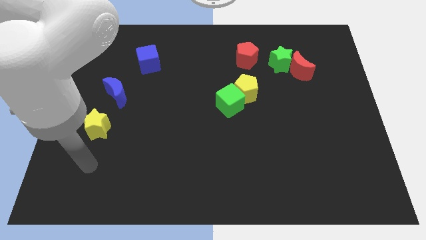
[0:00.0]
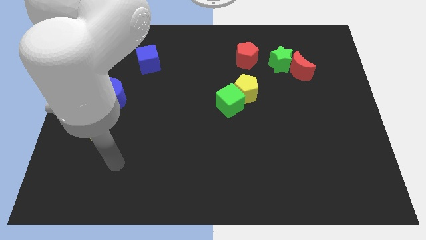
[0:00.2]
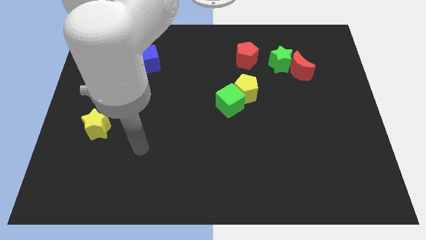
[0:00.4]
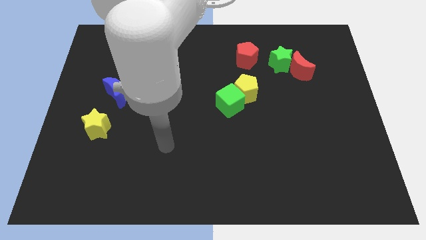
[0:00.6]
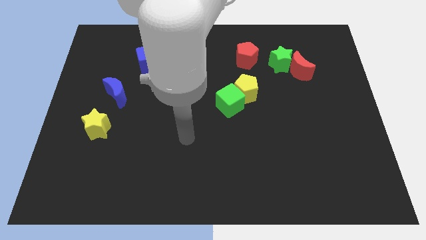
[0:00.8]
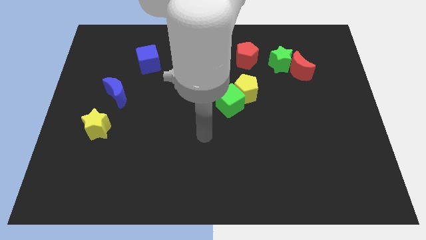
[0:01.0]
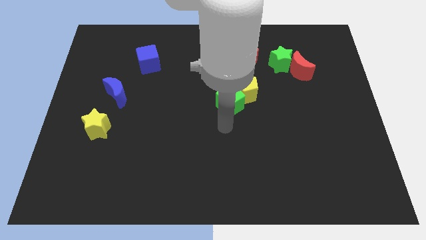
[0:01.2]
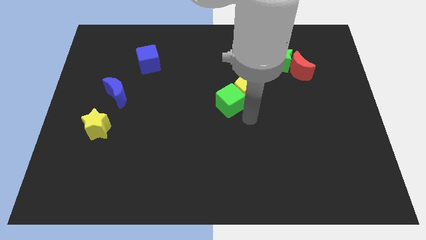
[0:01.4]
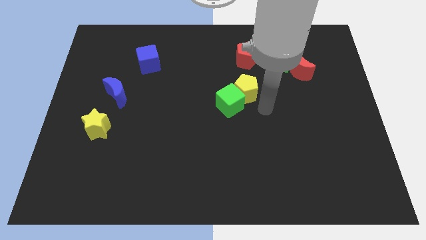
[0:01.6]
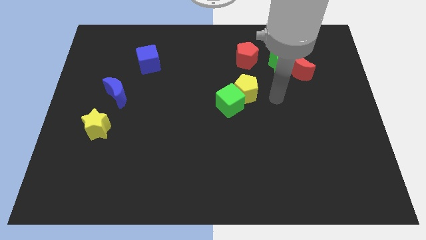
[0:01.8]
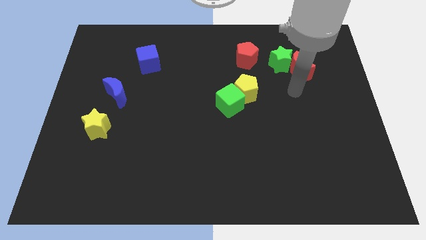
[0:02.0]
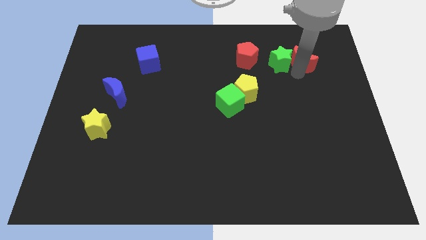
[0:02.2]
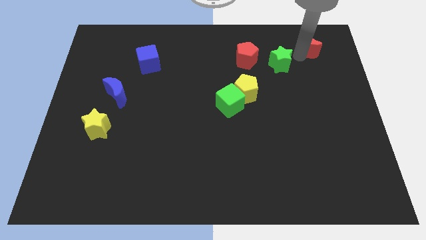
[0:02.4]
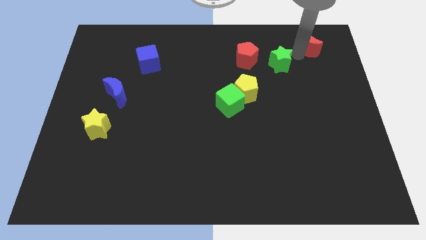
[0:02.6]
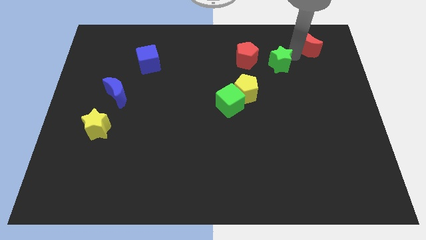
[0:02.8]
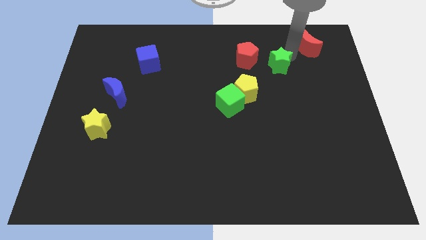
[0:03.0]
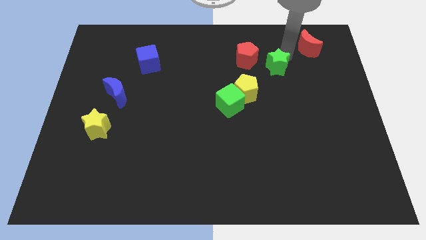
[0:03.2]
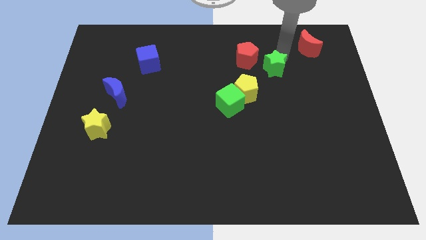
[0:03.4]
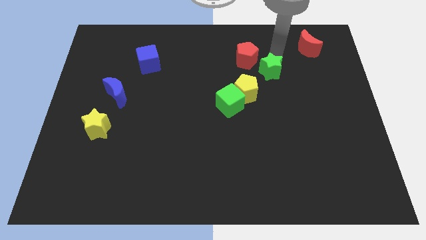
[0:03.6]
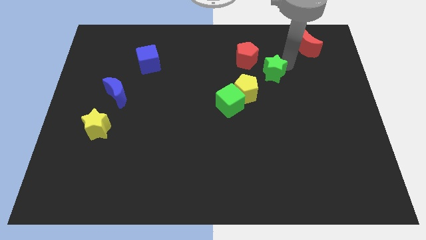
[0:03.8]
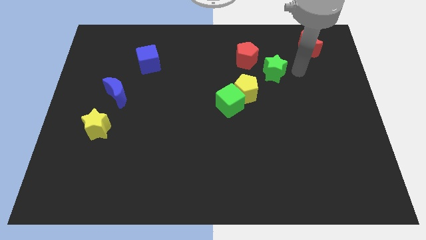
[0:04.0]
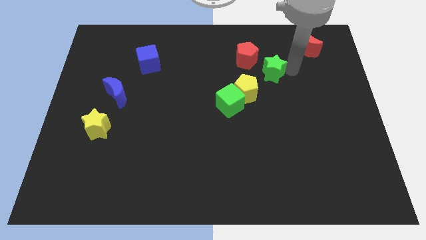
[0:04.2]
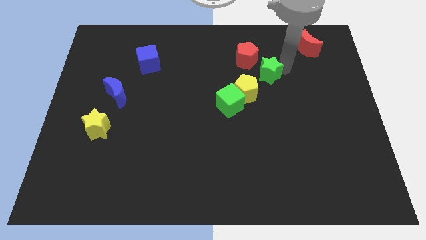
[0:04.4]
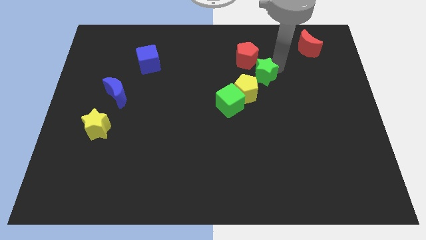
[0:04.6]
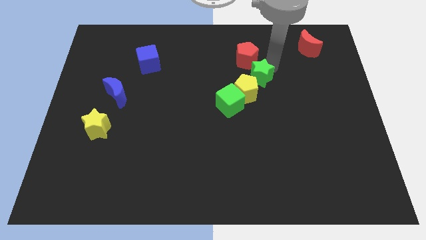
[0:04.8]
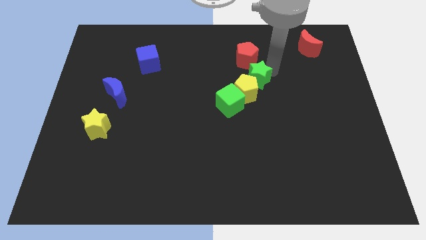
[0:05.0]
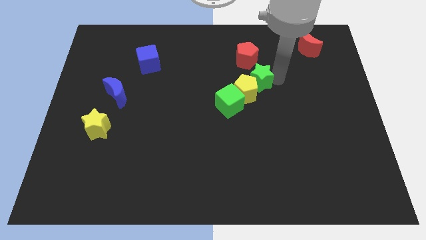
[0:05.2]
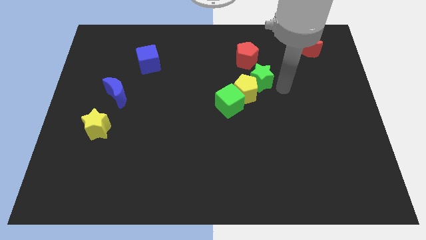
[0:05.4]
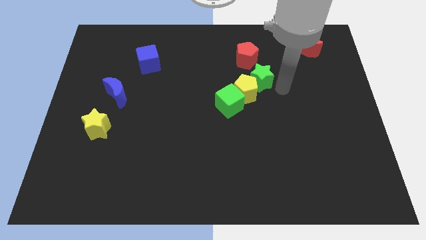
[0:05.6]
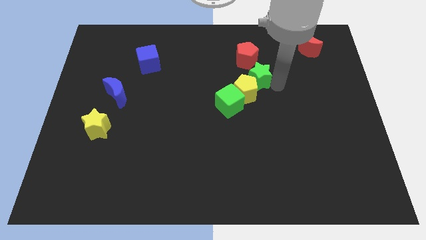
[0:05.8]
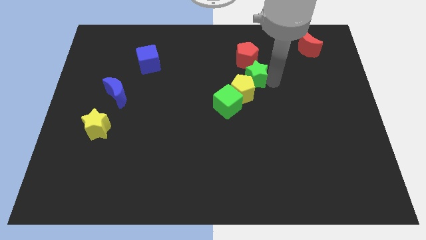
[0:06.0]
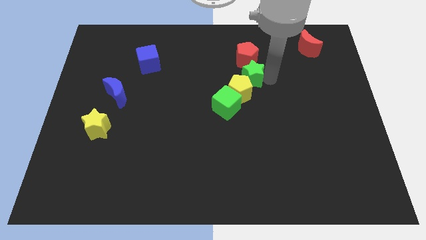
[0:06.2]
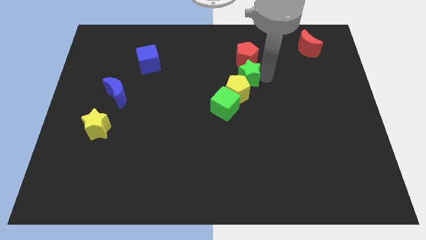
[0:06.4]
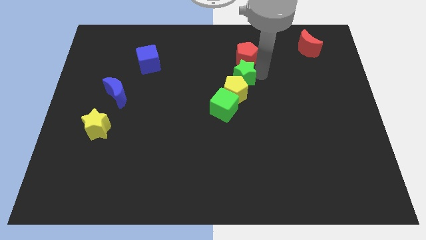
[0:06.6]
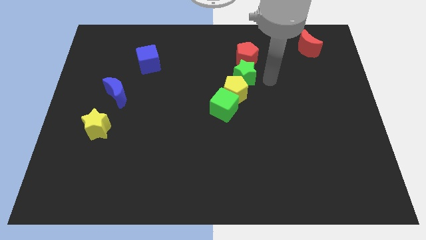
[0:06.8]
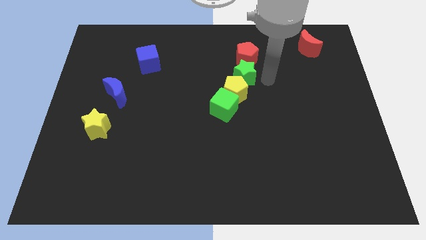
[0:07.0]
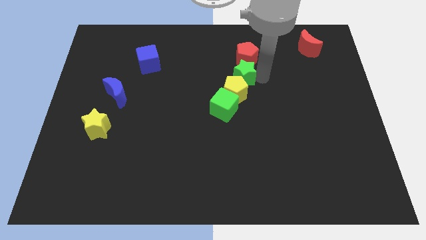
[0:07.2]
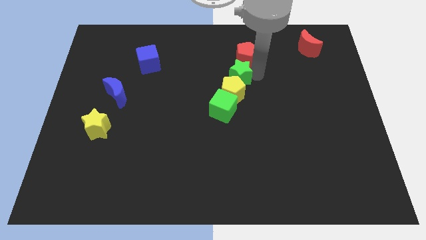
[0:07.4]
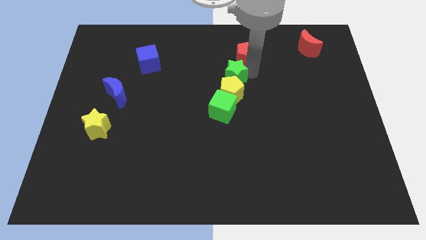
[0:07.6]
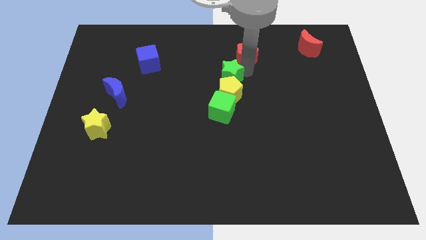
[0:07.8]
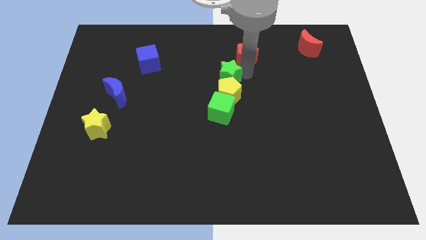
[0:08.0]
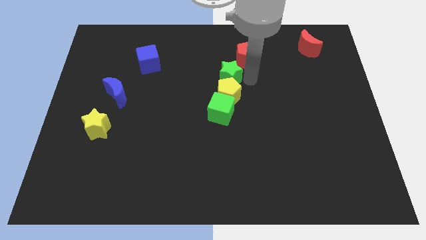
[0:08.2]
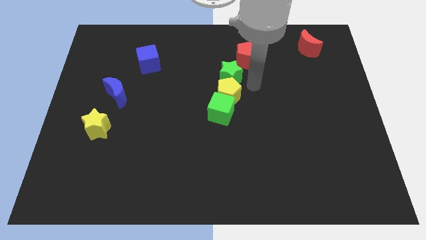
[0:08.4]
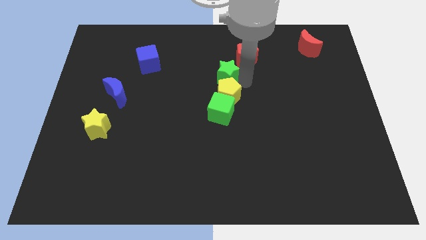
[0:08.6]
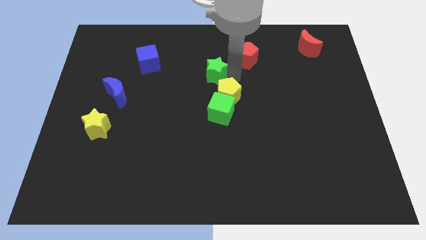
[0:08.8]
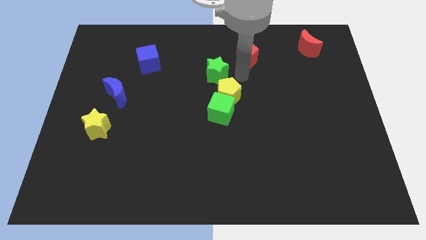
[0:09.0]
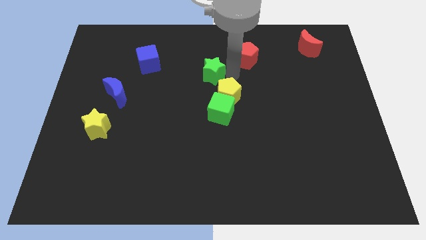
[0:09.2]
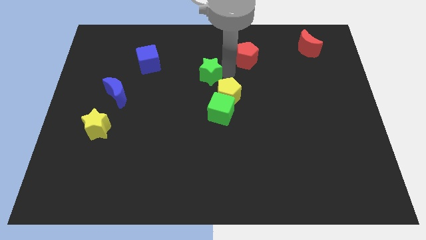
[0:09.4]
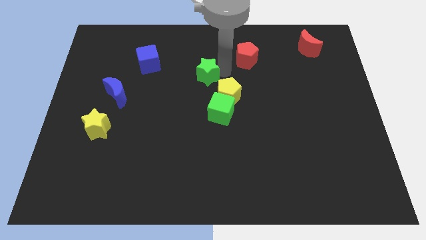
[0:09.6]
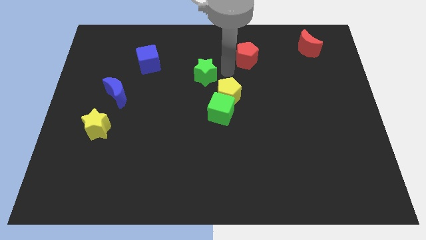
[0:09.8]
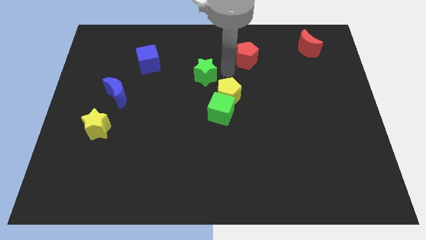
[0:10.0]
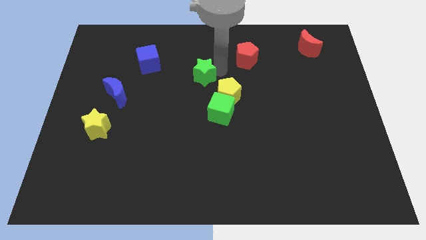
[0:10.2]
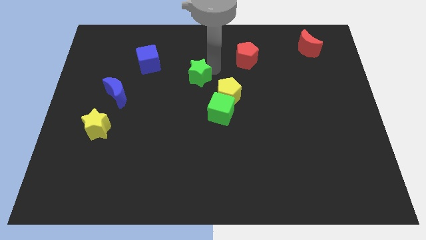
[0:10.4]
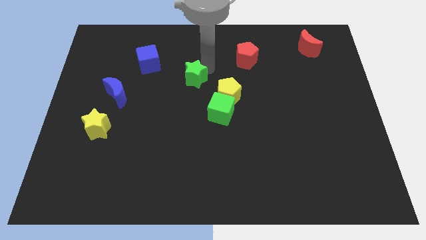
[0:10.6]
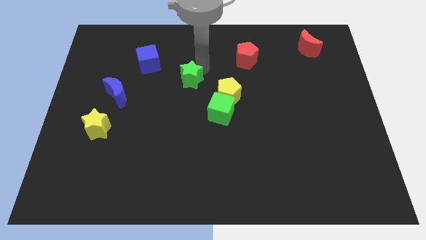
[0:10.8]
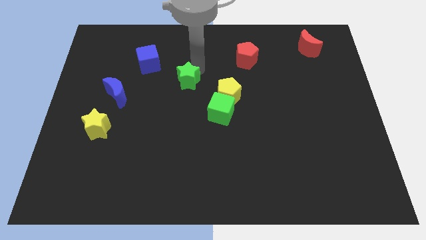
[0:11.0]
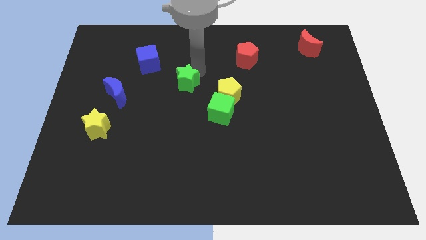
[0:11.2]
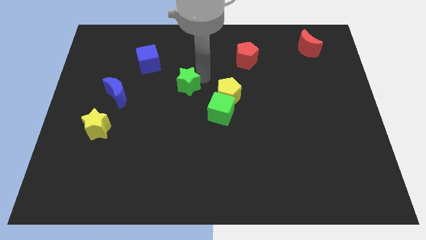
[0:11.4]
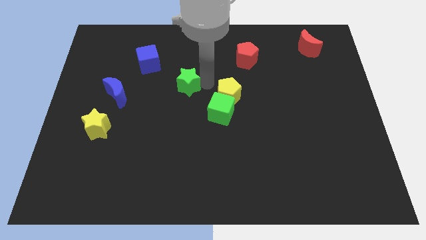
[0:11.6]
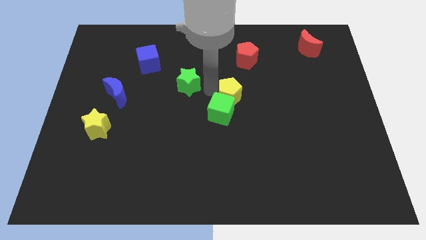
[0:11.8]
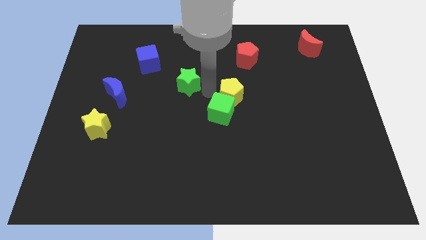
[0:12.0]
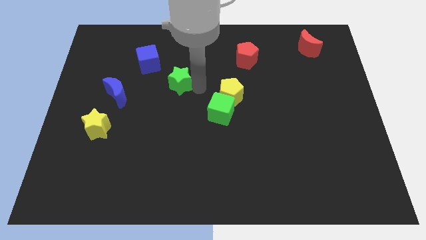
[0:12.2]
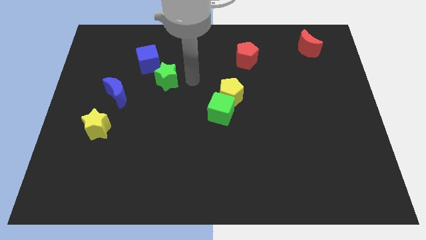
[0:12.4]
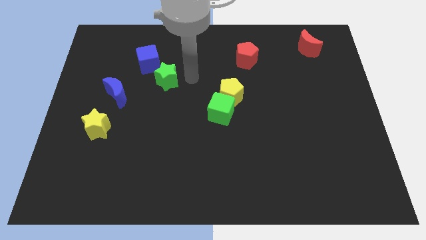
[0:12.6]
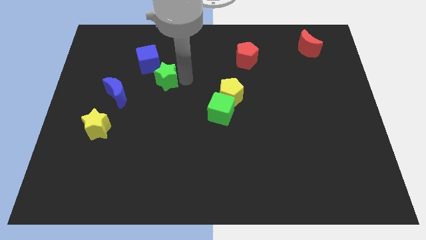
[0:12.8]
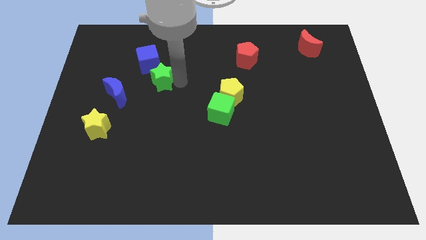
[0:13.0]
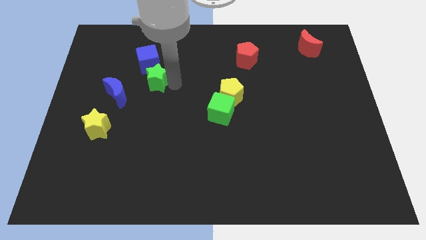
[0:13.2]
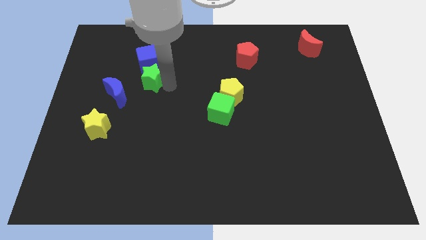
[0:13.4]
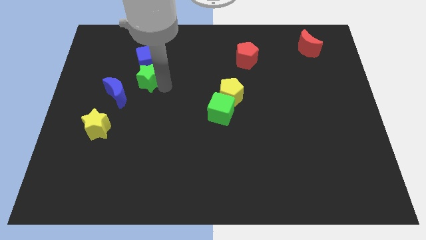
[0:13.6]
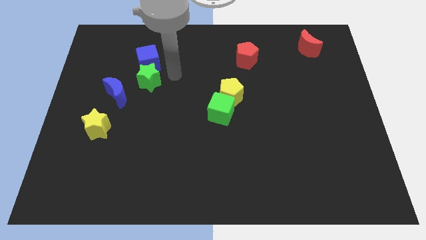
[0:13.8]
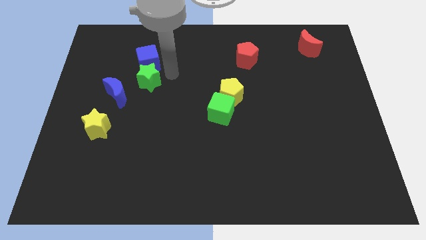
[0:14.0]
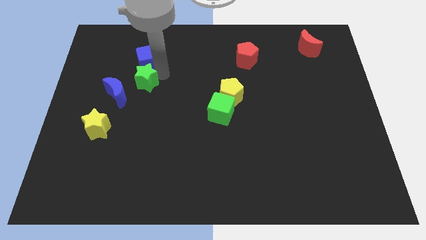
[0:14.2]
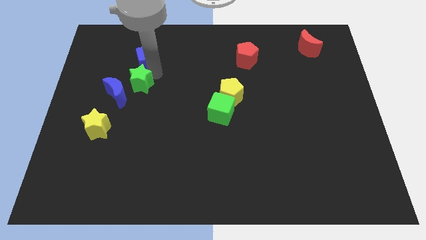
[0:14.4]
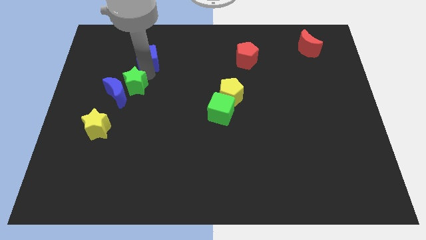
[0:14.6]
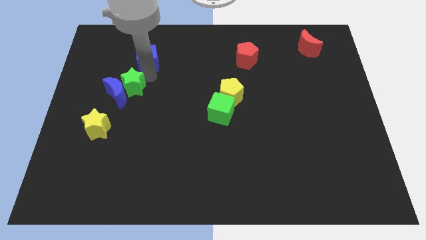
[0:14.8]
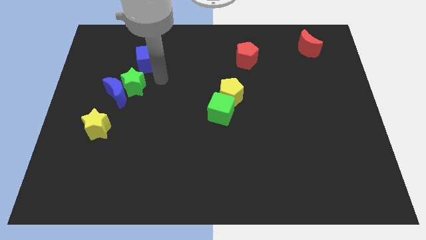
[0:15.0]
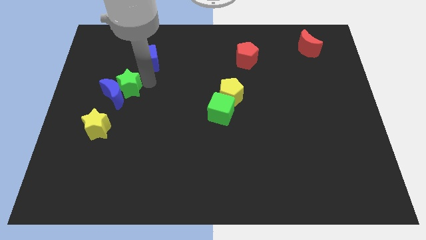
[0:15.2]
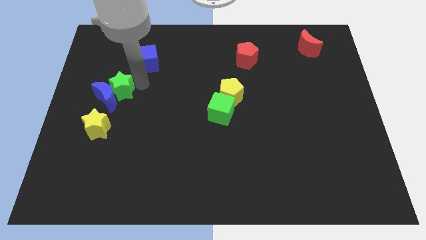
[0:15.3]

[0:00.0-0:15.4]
push the green star above the yellow star
